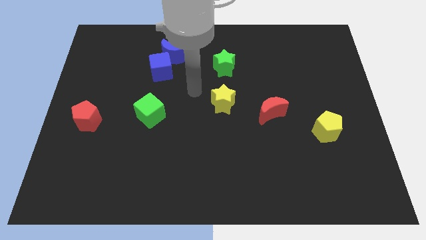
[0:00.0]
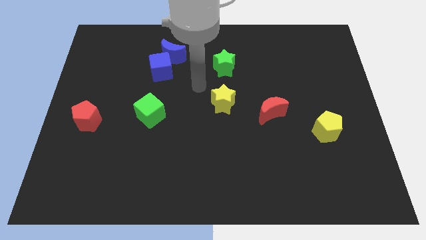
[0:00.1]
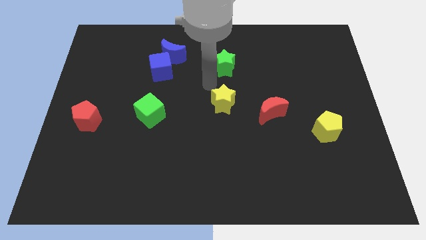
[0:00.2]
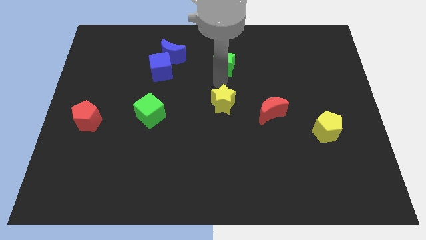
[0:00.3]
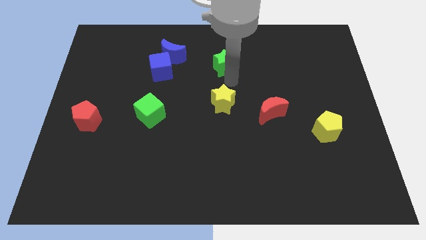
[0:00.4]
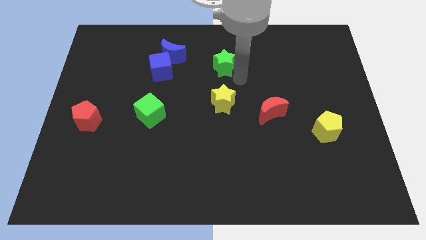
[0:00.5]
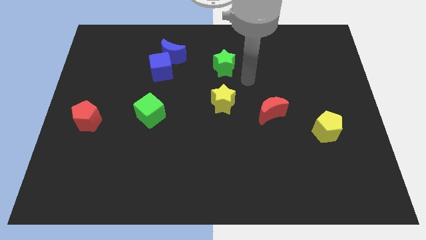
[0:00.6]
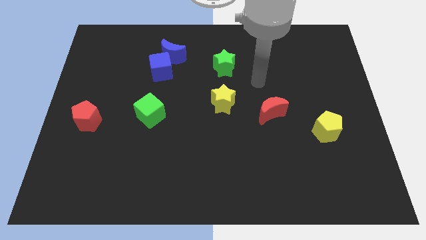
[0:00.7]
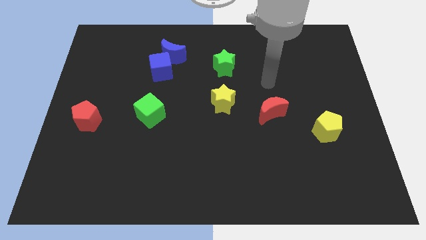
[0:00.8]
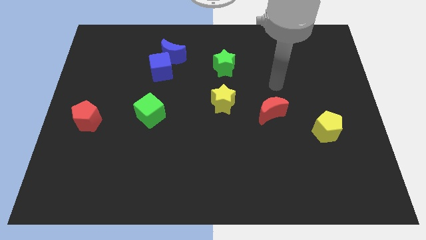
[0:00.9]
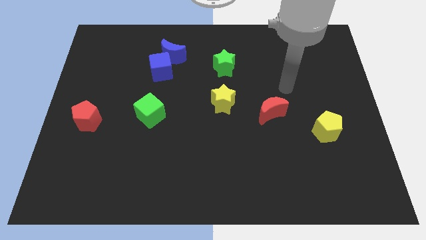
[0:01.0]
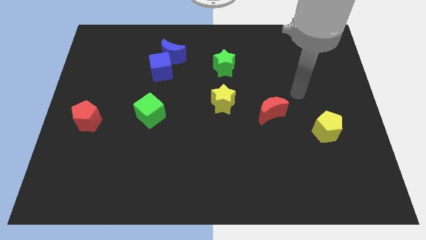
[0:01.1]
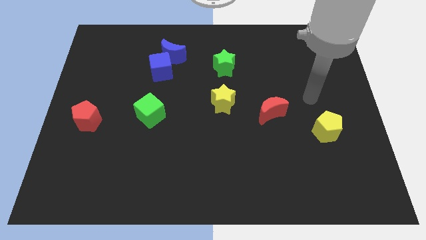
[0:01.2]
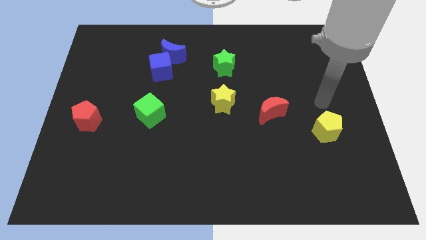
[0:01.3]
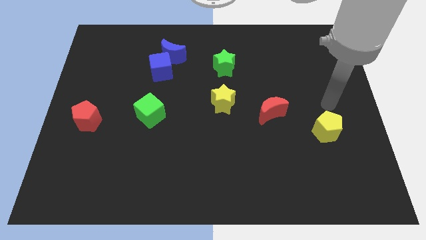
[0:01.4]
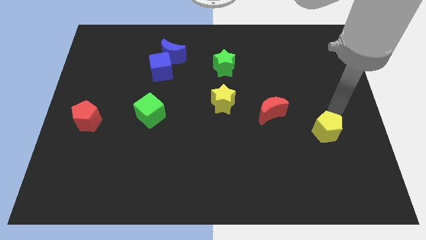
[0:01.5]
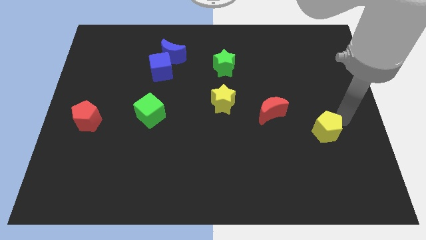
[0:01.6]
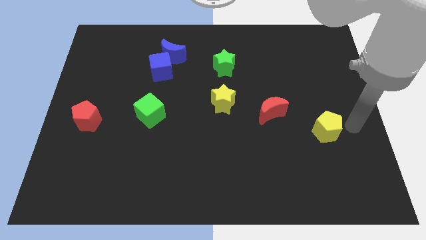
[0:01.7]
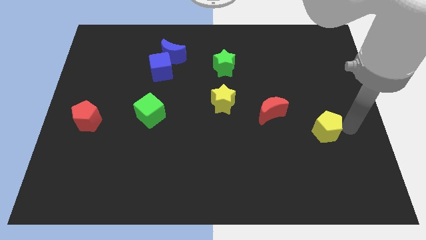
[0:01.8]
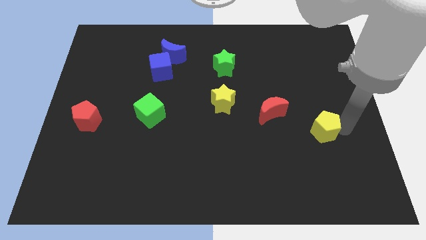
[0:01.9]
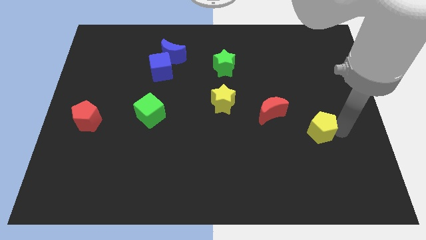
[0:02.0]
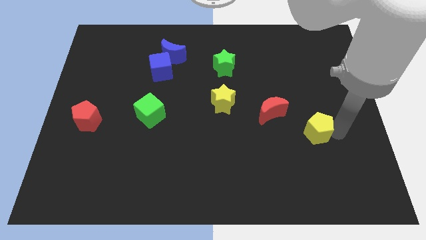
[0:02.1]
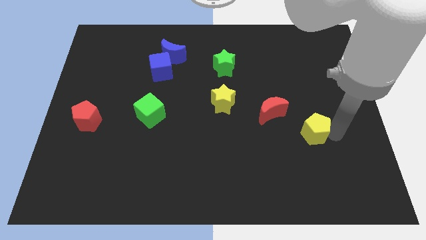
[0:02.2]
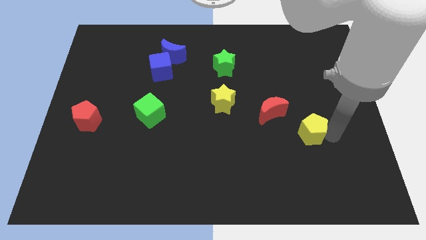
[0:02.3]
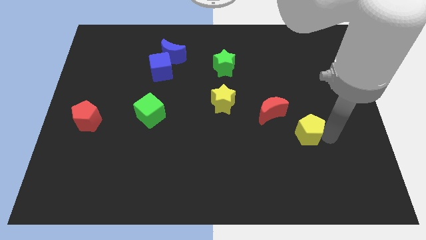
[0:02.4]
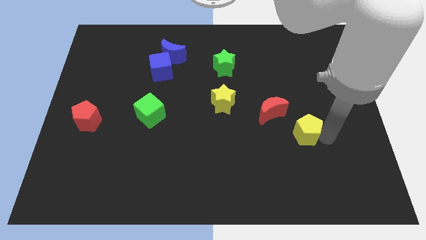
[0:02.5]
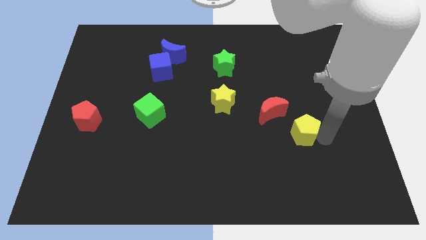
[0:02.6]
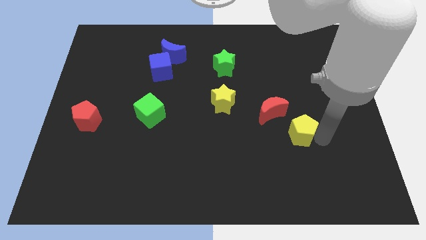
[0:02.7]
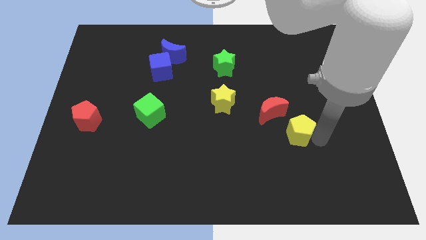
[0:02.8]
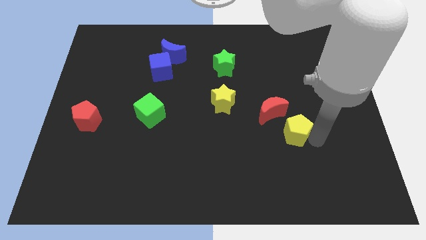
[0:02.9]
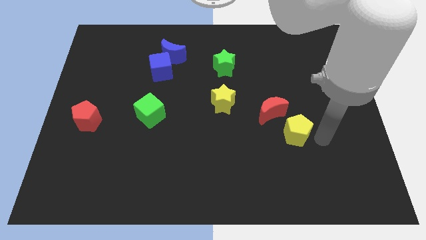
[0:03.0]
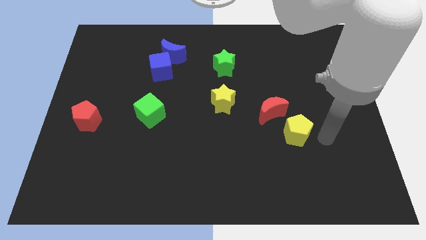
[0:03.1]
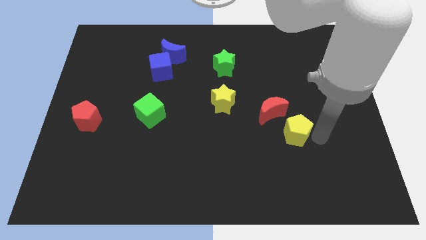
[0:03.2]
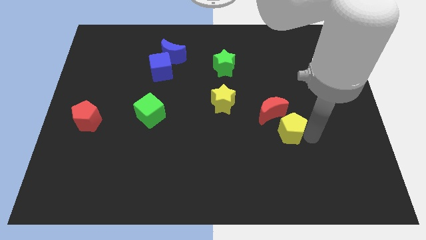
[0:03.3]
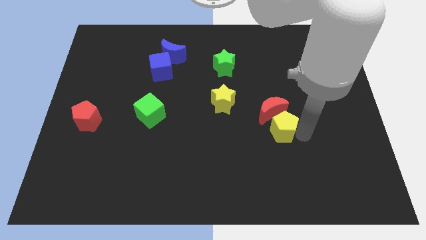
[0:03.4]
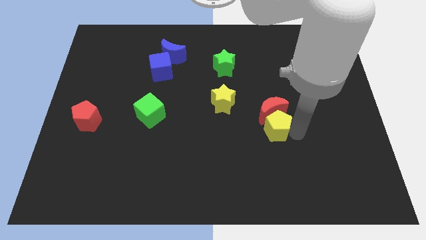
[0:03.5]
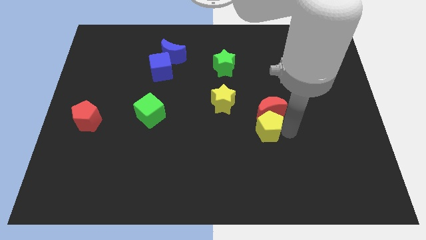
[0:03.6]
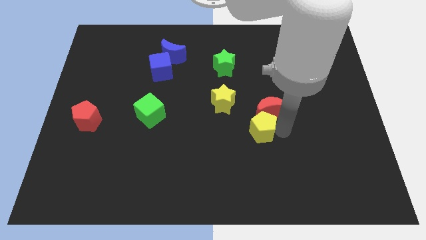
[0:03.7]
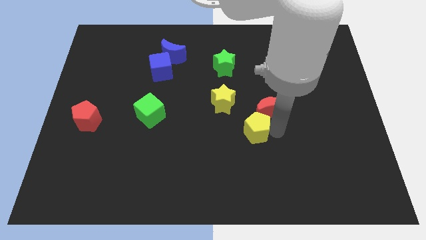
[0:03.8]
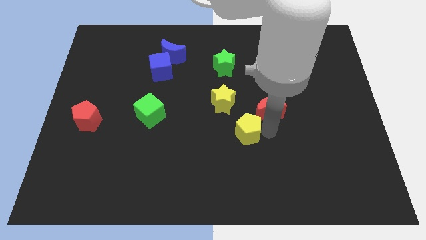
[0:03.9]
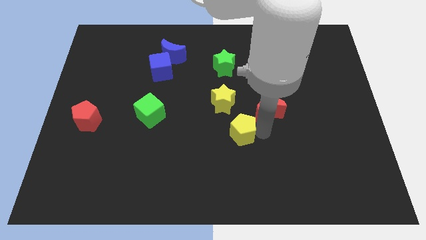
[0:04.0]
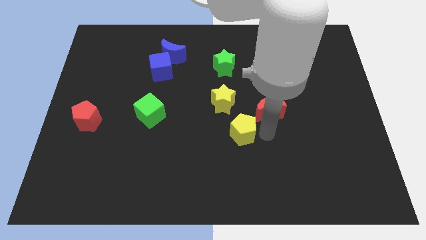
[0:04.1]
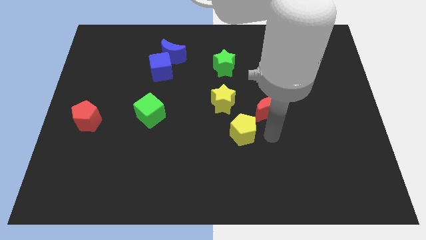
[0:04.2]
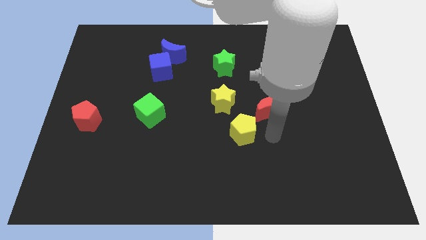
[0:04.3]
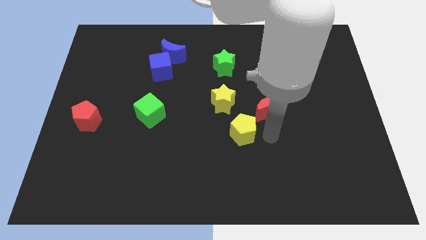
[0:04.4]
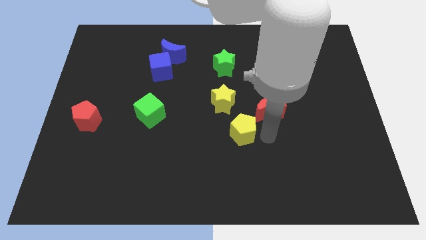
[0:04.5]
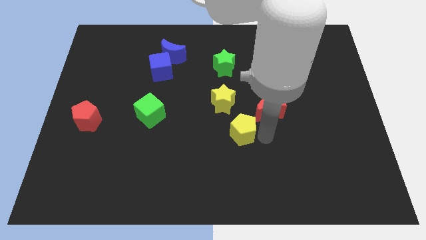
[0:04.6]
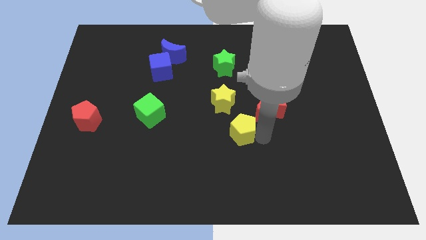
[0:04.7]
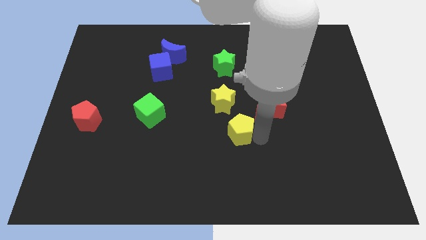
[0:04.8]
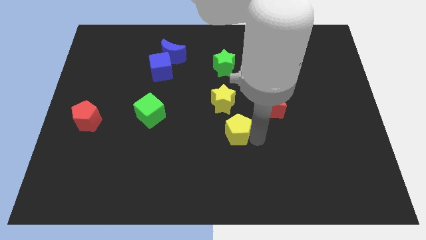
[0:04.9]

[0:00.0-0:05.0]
slide the yellow pentagon to the left

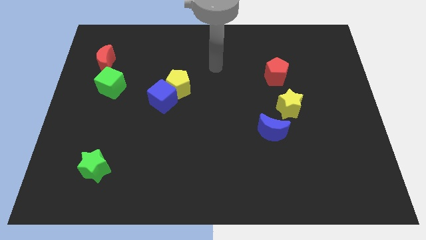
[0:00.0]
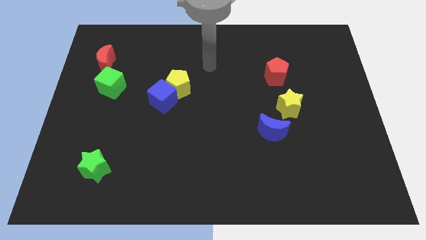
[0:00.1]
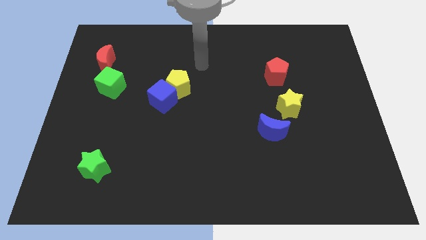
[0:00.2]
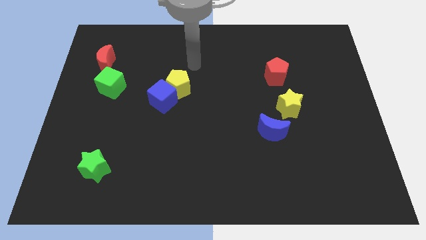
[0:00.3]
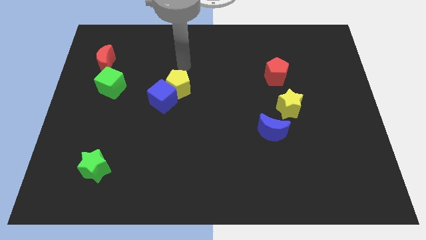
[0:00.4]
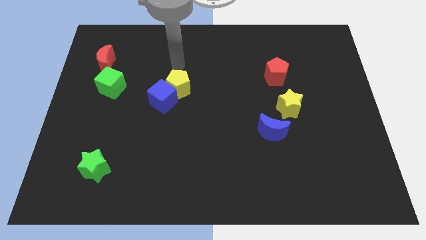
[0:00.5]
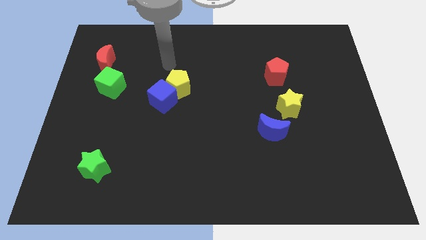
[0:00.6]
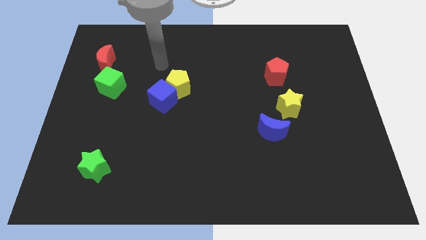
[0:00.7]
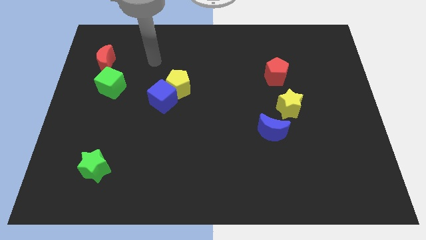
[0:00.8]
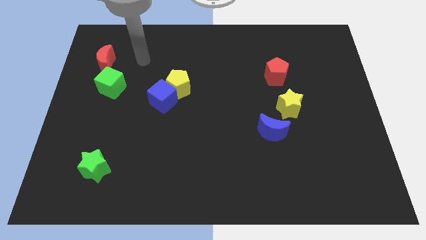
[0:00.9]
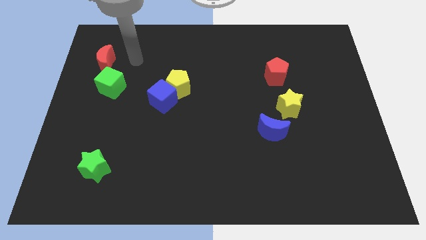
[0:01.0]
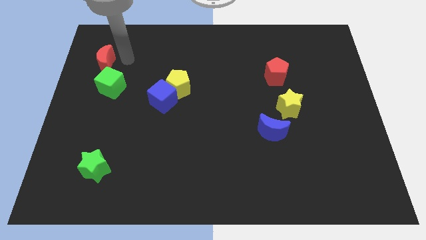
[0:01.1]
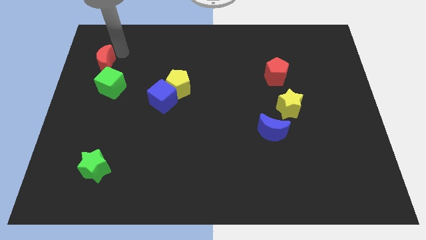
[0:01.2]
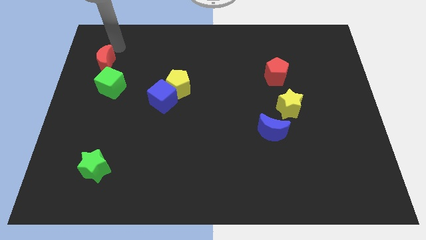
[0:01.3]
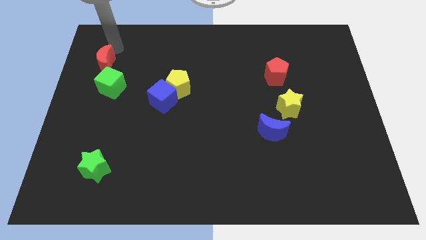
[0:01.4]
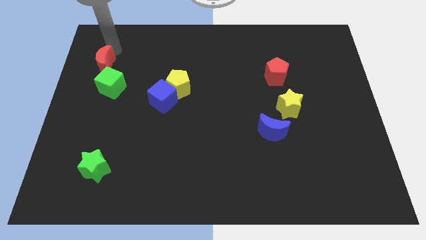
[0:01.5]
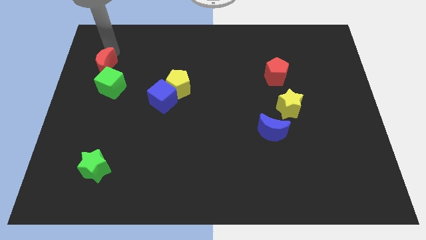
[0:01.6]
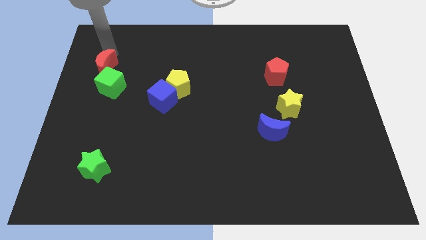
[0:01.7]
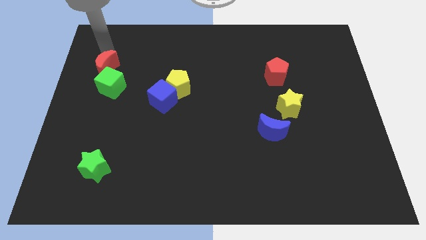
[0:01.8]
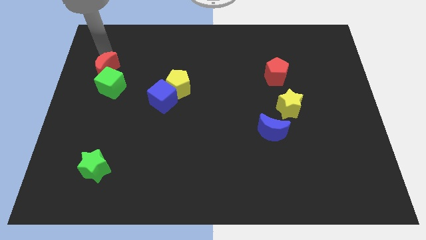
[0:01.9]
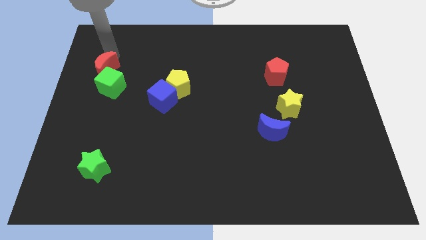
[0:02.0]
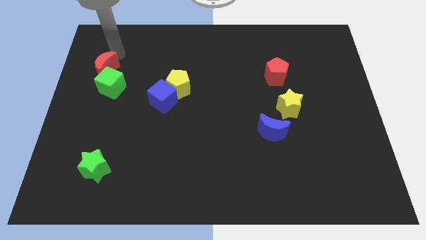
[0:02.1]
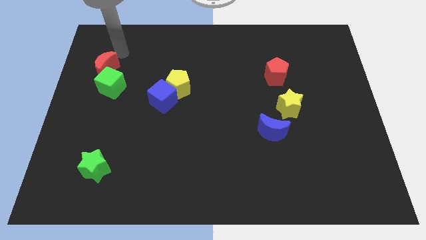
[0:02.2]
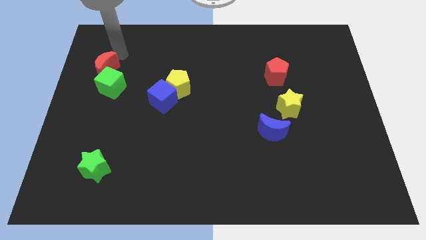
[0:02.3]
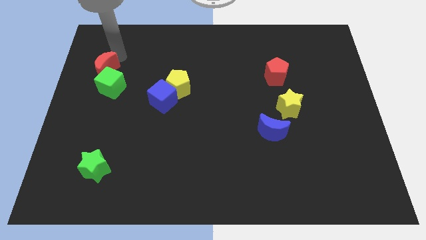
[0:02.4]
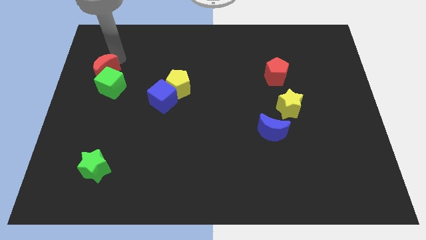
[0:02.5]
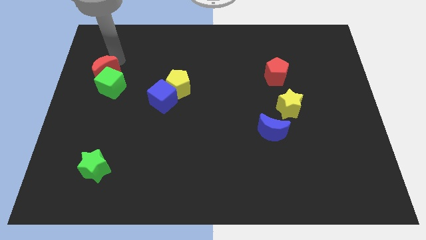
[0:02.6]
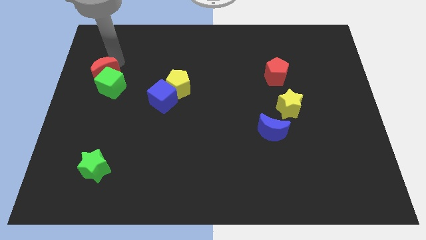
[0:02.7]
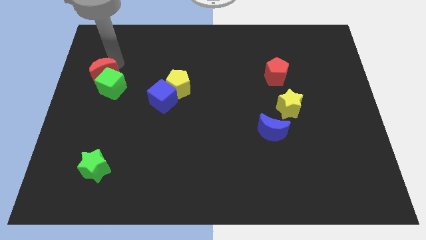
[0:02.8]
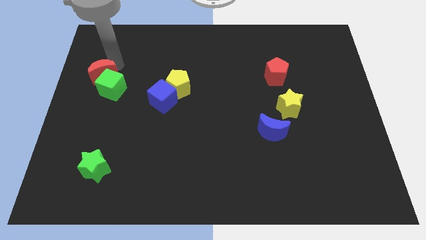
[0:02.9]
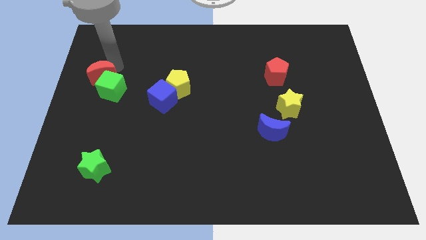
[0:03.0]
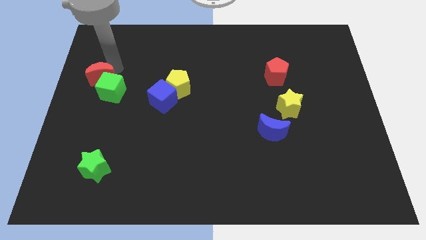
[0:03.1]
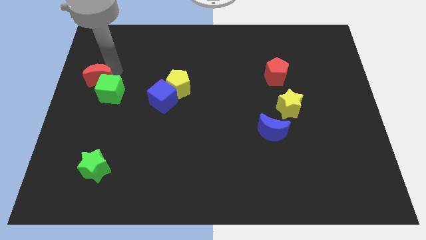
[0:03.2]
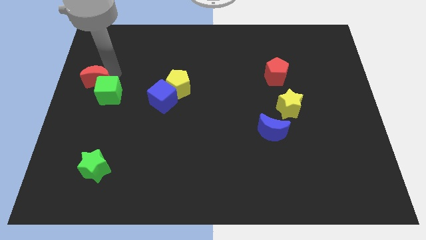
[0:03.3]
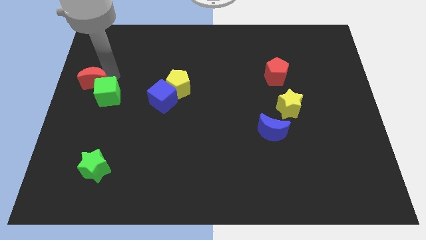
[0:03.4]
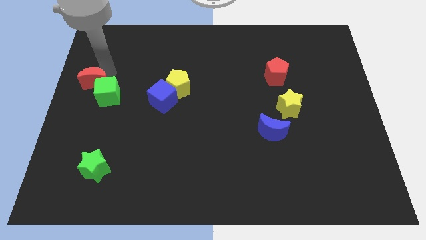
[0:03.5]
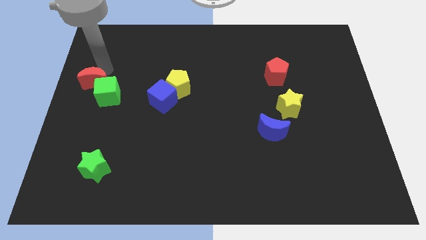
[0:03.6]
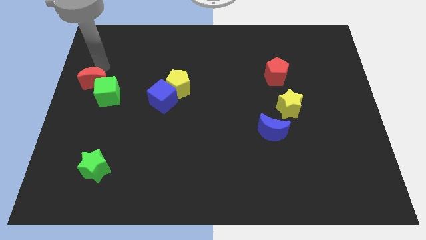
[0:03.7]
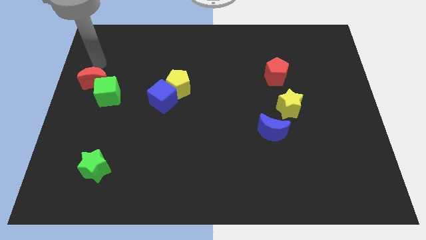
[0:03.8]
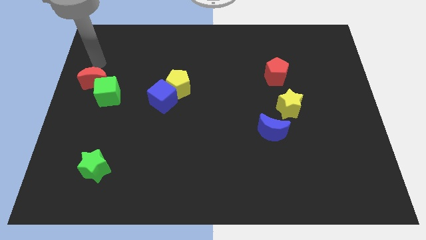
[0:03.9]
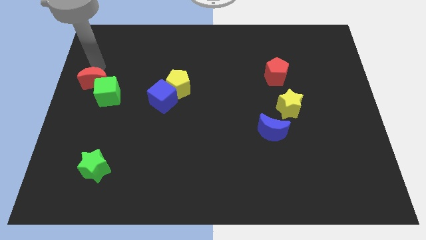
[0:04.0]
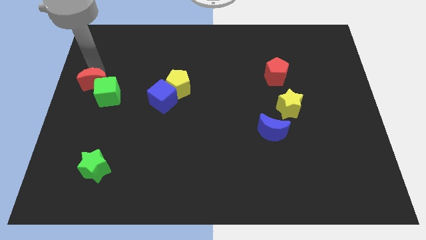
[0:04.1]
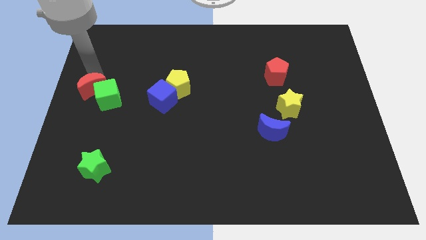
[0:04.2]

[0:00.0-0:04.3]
push the red moon a little bit down
